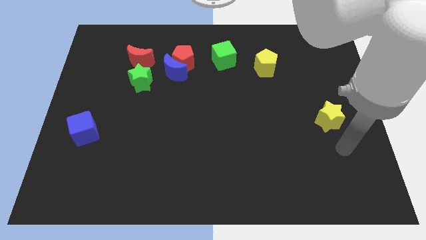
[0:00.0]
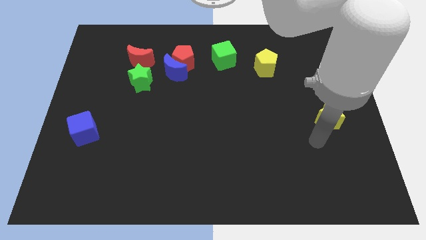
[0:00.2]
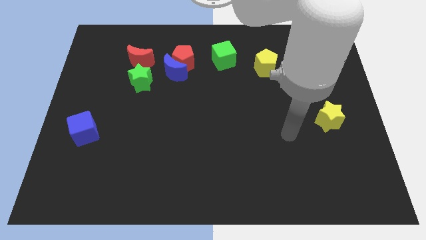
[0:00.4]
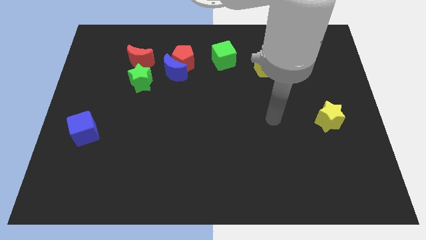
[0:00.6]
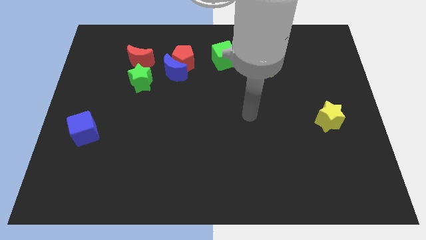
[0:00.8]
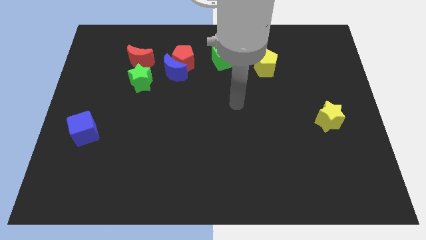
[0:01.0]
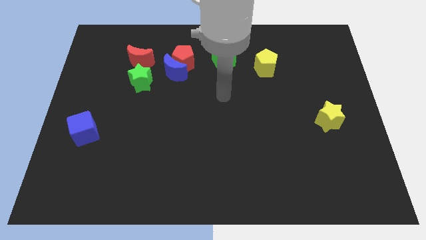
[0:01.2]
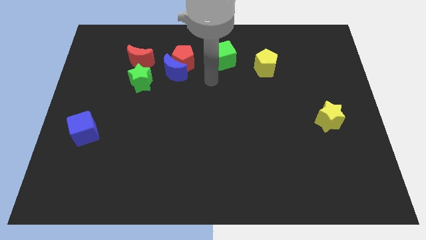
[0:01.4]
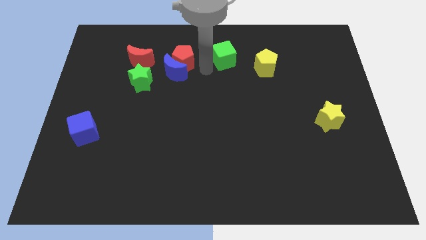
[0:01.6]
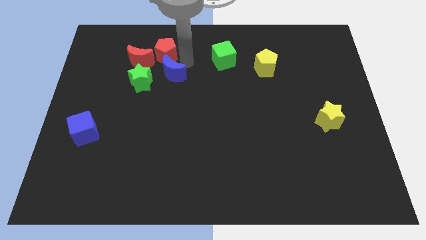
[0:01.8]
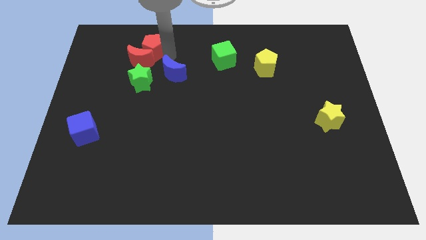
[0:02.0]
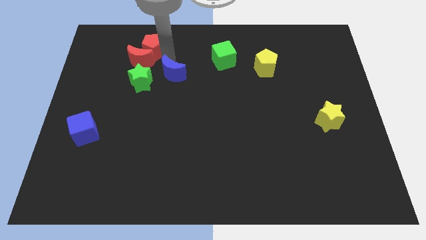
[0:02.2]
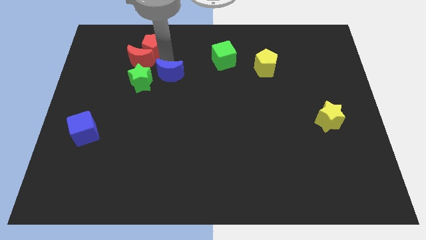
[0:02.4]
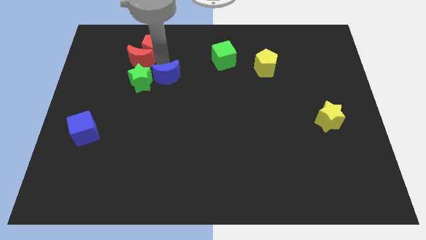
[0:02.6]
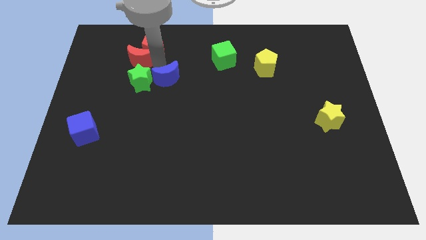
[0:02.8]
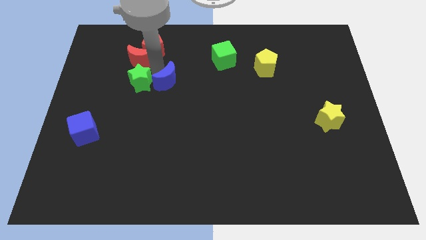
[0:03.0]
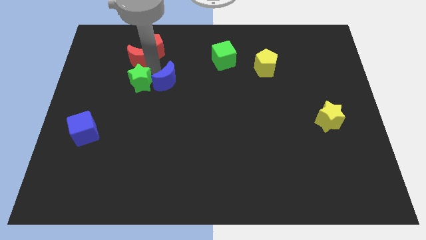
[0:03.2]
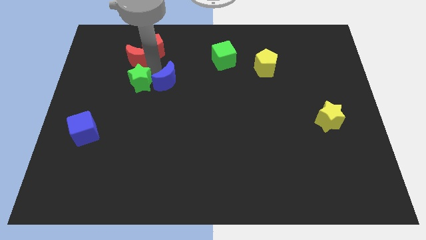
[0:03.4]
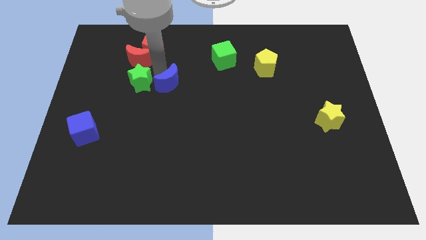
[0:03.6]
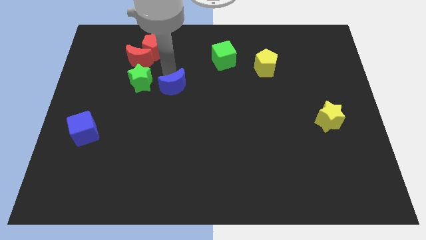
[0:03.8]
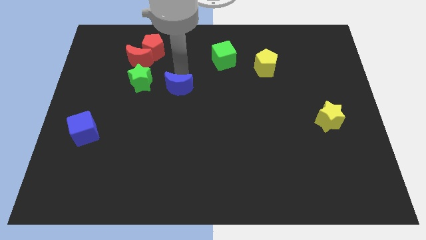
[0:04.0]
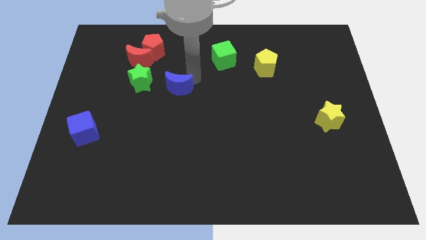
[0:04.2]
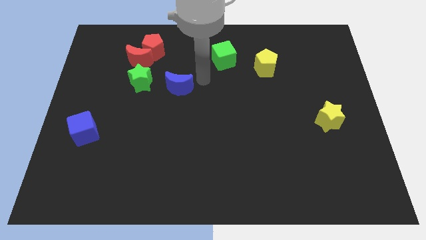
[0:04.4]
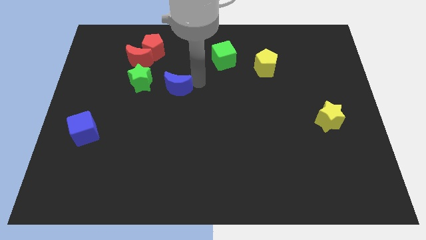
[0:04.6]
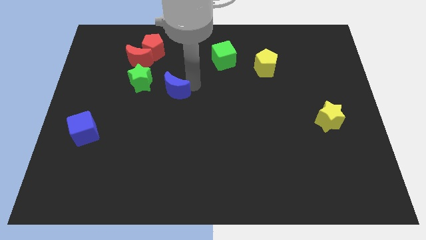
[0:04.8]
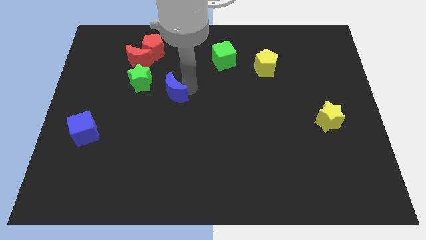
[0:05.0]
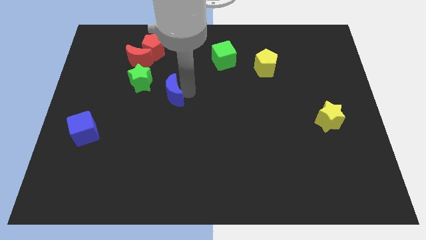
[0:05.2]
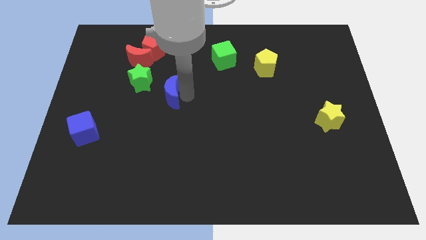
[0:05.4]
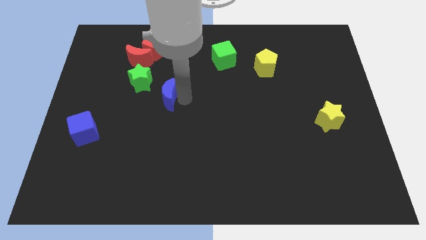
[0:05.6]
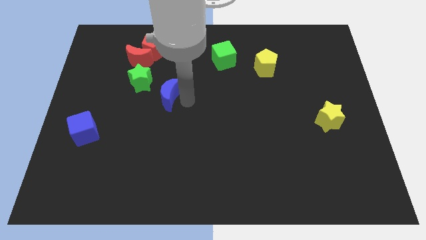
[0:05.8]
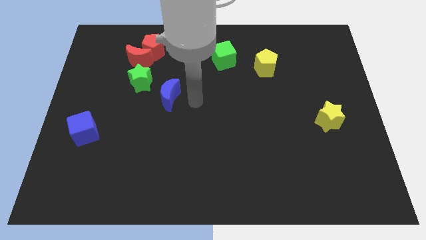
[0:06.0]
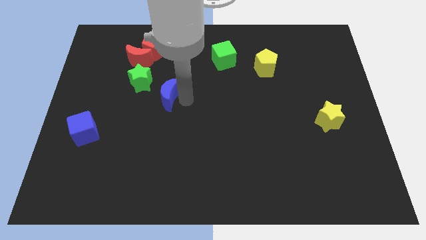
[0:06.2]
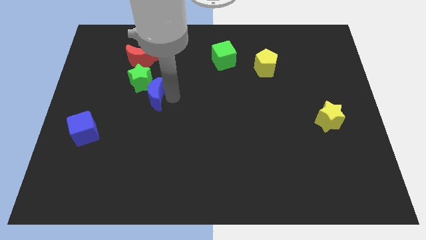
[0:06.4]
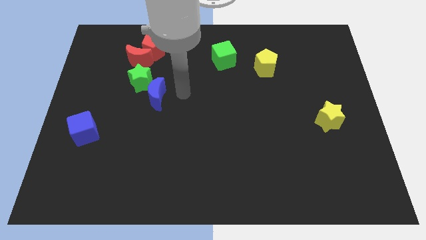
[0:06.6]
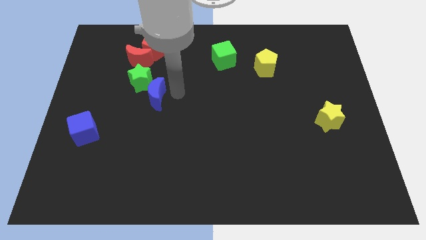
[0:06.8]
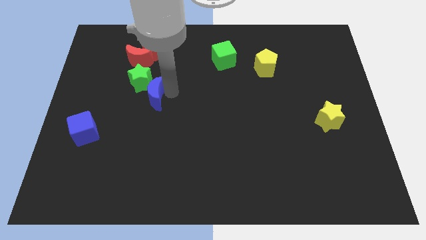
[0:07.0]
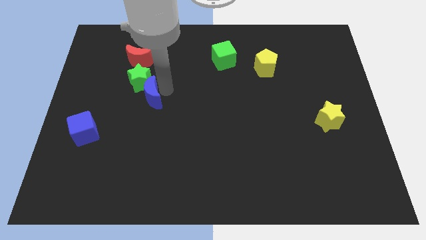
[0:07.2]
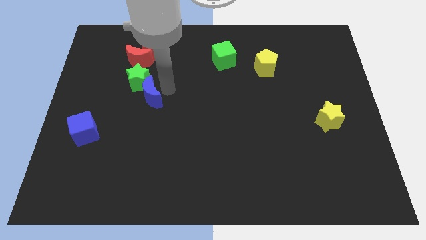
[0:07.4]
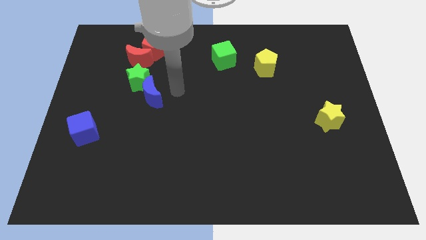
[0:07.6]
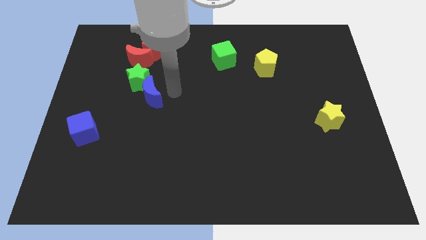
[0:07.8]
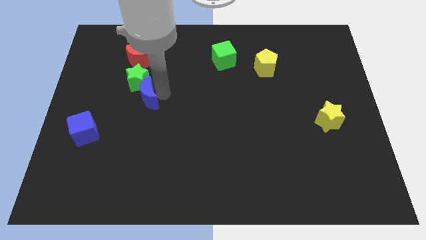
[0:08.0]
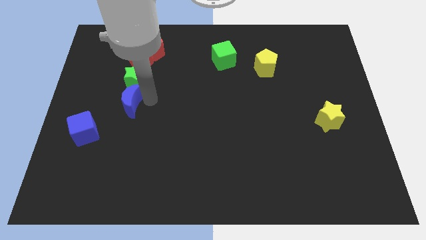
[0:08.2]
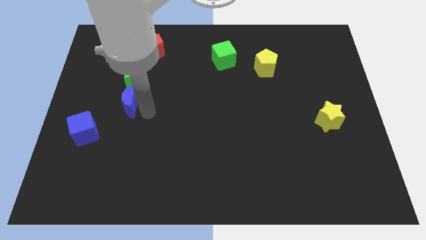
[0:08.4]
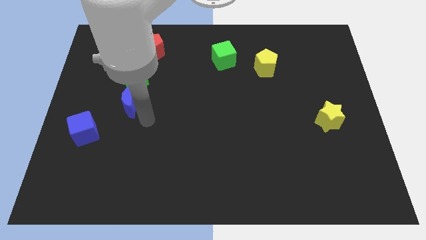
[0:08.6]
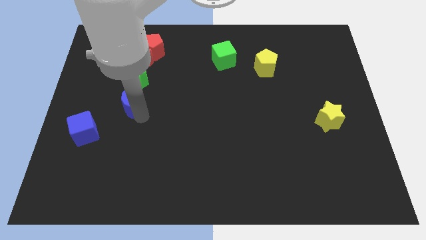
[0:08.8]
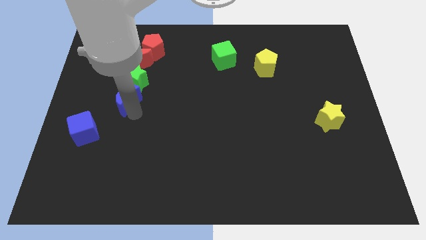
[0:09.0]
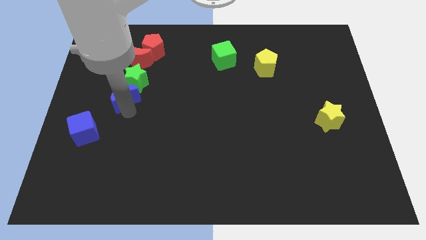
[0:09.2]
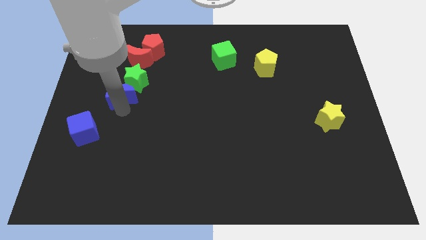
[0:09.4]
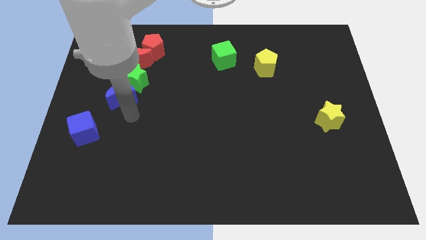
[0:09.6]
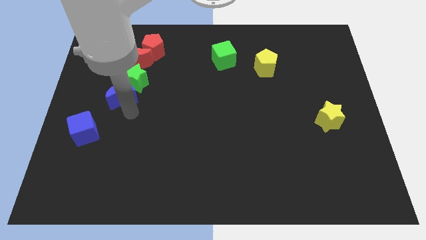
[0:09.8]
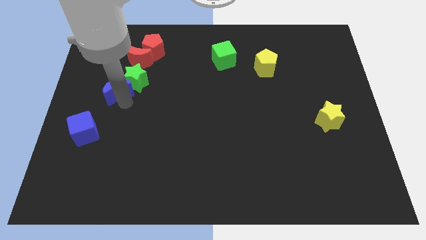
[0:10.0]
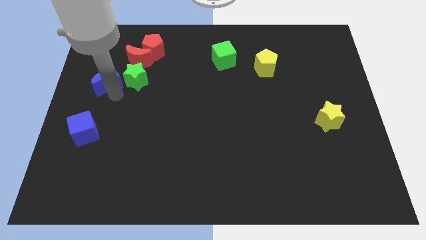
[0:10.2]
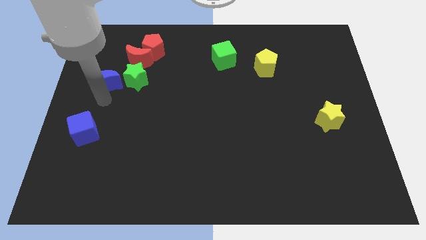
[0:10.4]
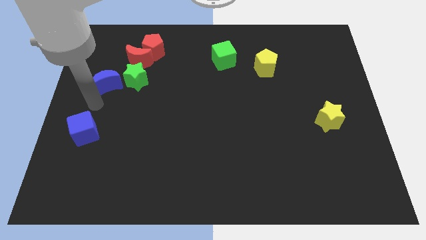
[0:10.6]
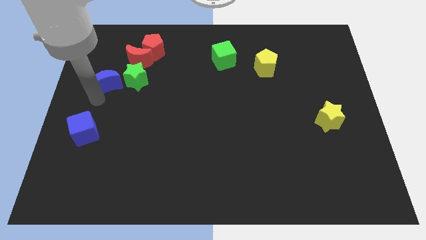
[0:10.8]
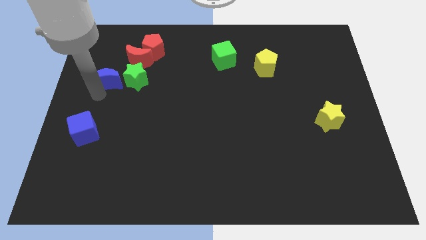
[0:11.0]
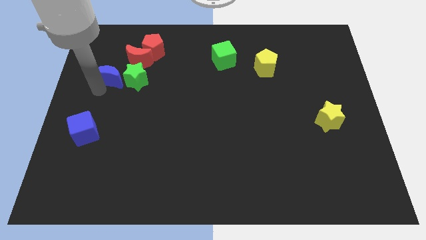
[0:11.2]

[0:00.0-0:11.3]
put the blue moon to the top left side of the green star

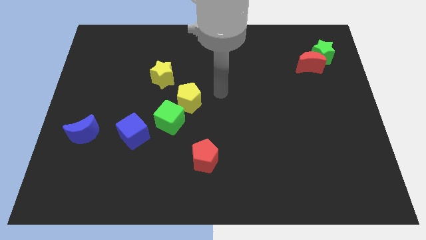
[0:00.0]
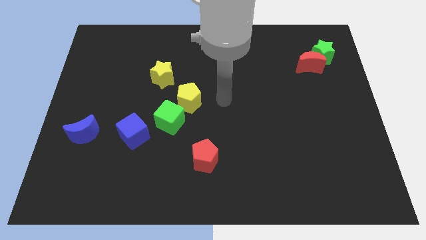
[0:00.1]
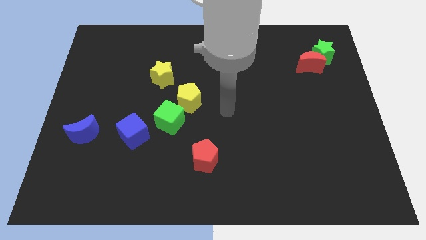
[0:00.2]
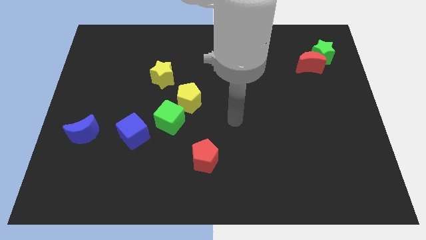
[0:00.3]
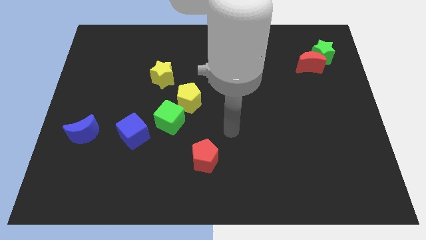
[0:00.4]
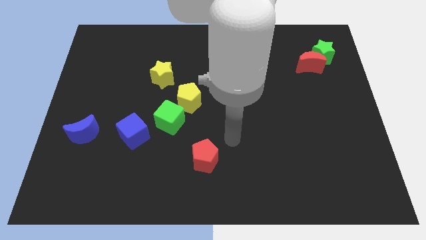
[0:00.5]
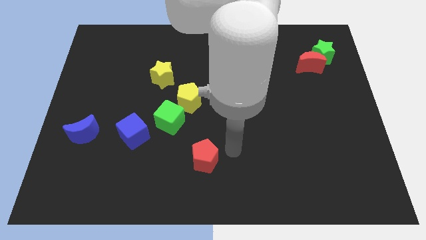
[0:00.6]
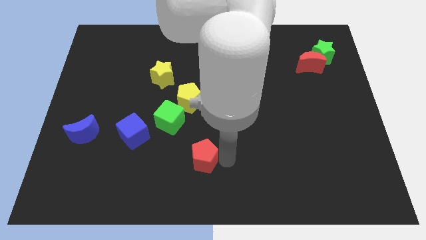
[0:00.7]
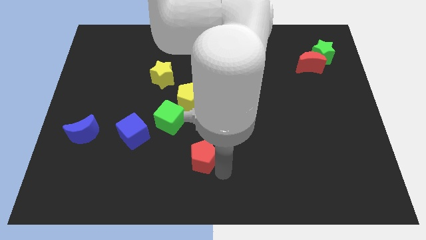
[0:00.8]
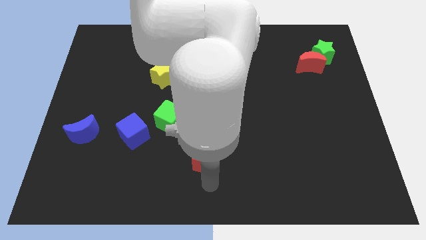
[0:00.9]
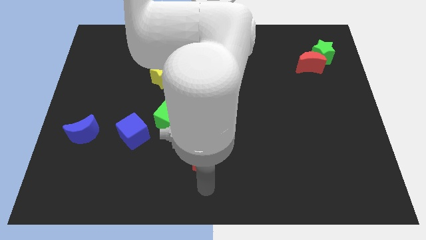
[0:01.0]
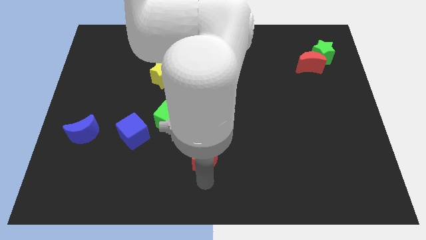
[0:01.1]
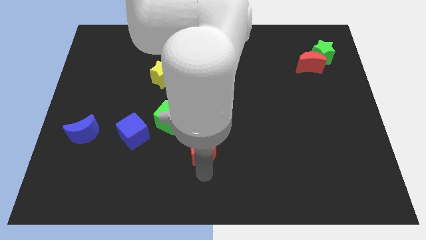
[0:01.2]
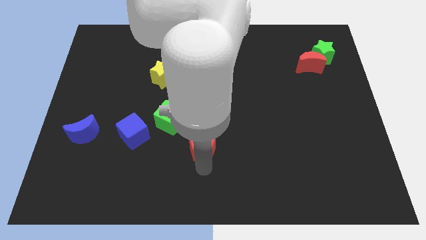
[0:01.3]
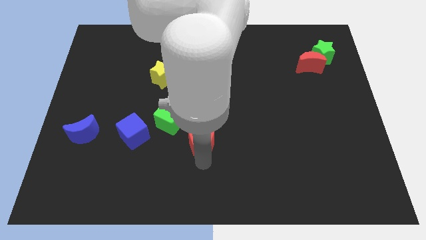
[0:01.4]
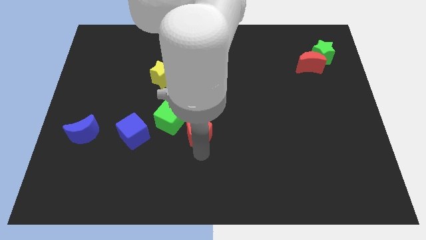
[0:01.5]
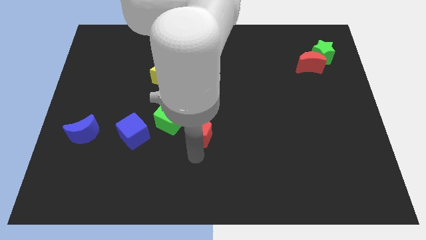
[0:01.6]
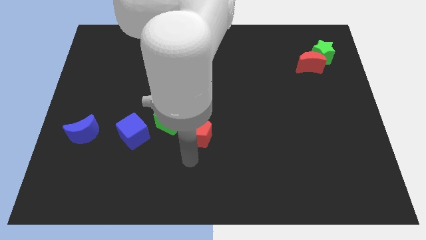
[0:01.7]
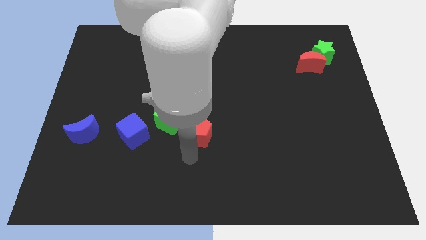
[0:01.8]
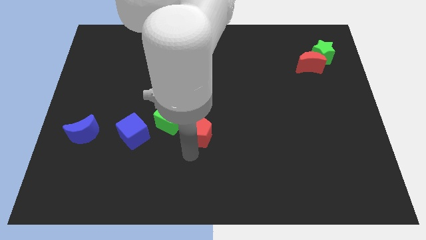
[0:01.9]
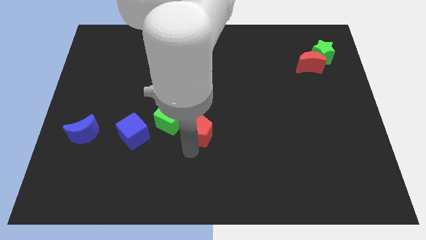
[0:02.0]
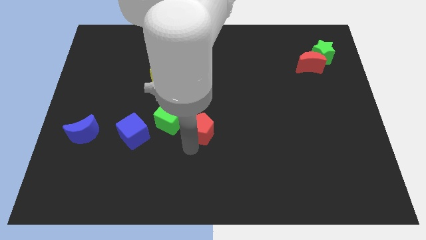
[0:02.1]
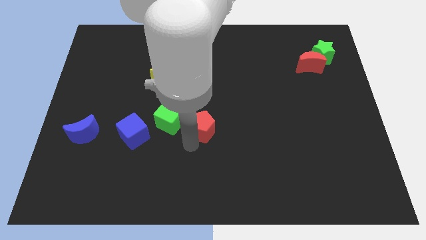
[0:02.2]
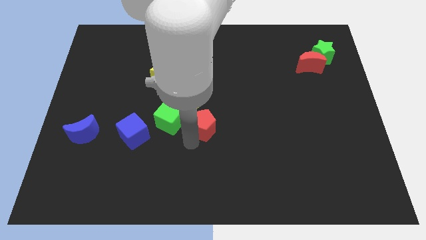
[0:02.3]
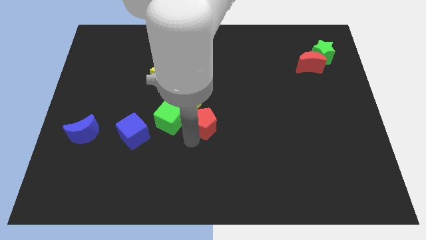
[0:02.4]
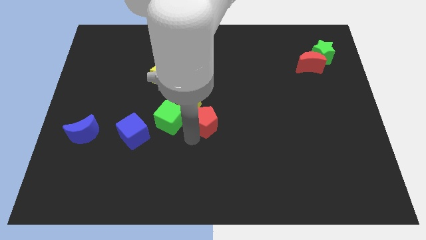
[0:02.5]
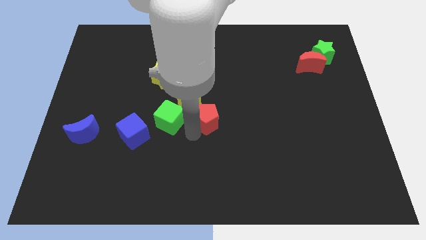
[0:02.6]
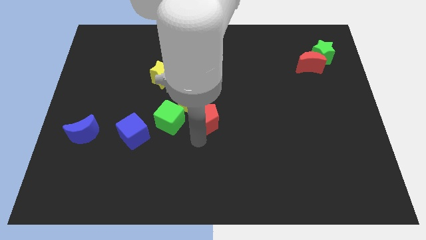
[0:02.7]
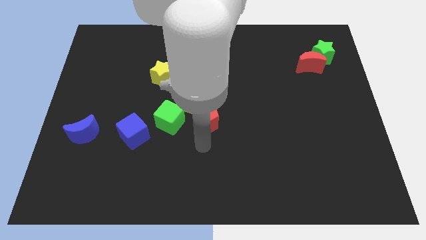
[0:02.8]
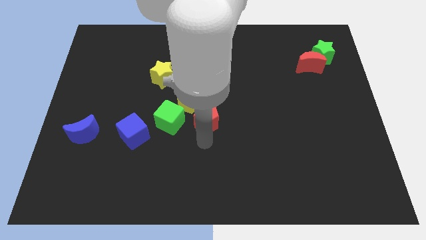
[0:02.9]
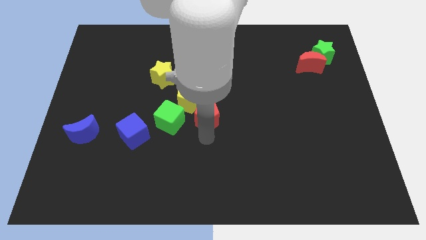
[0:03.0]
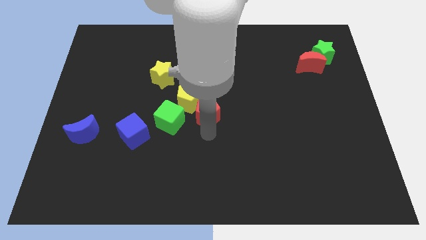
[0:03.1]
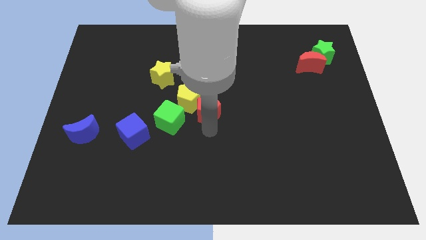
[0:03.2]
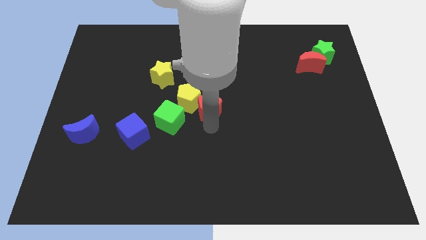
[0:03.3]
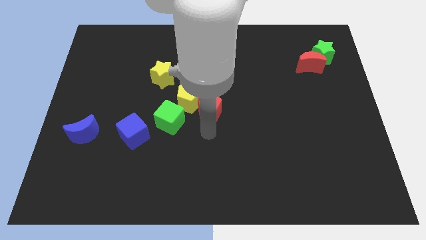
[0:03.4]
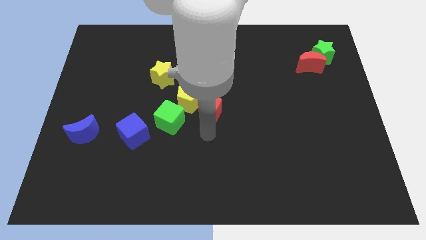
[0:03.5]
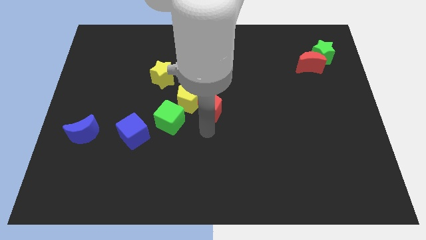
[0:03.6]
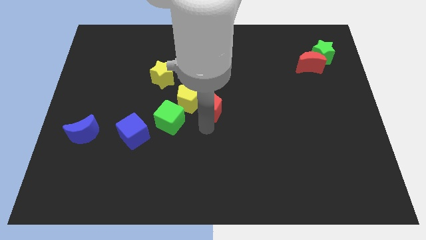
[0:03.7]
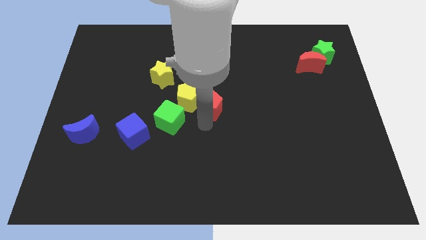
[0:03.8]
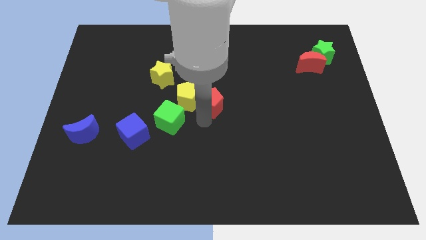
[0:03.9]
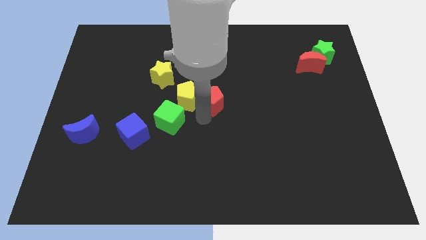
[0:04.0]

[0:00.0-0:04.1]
put the red pentagon to the top right side of the yellow pentagon
